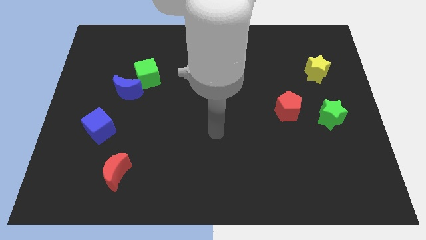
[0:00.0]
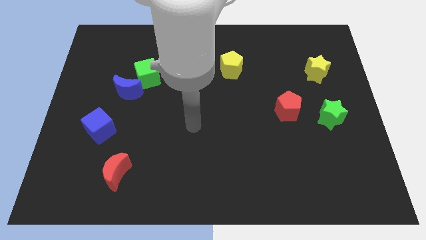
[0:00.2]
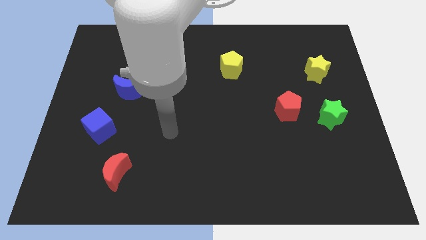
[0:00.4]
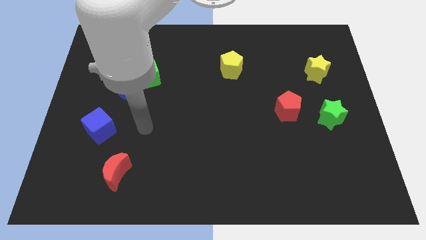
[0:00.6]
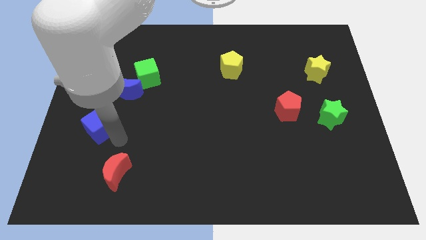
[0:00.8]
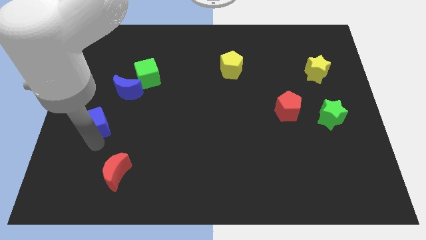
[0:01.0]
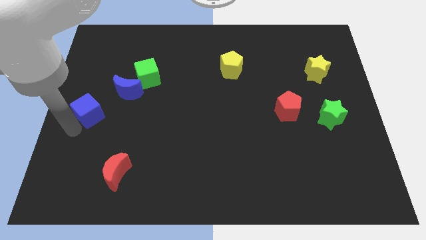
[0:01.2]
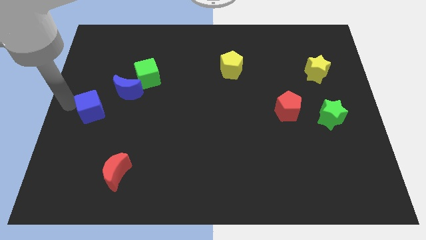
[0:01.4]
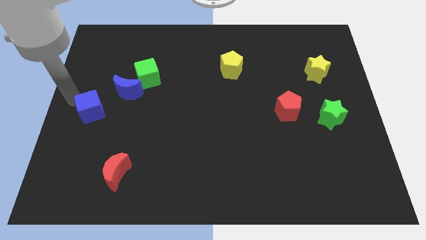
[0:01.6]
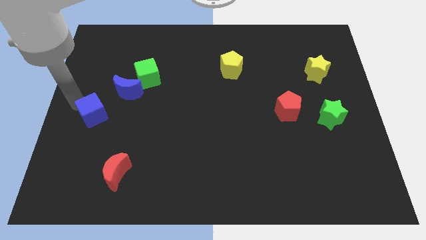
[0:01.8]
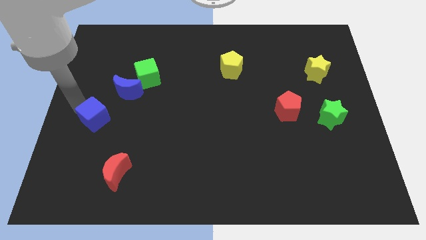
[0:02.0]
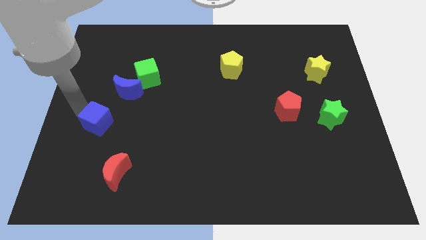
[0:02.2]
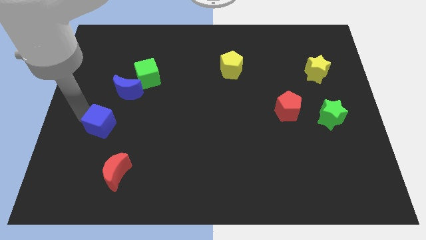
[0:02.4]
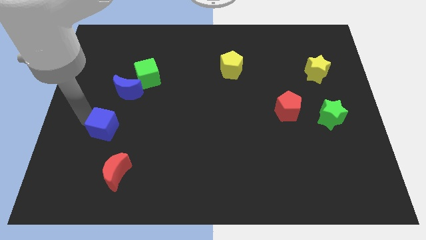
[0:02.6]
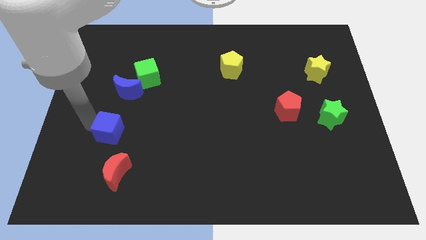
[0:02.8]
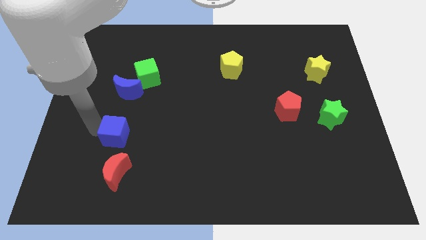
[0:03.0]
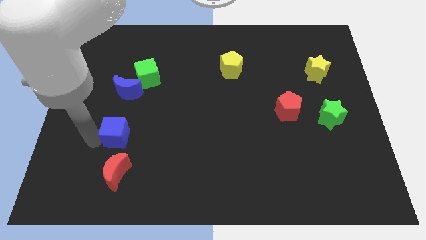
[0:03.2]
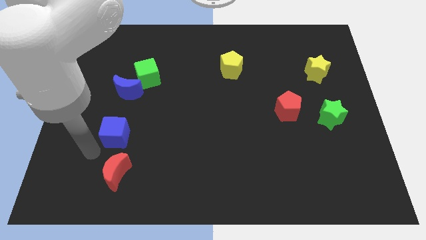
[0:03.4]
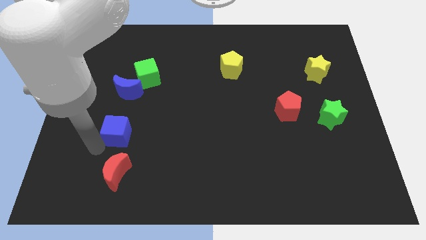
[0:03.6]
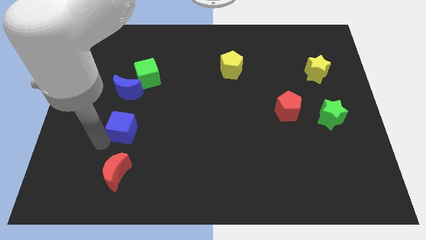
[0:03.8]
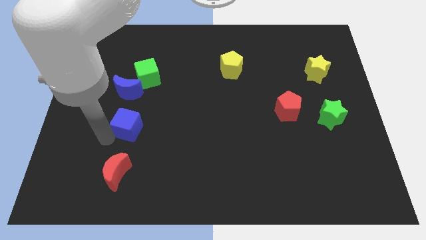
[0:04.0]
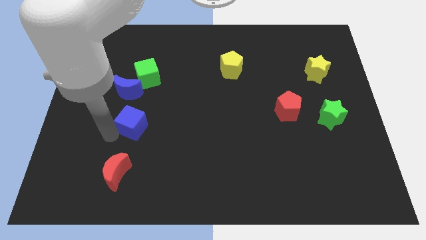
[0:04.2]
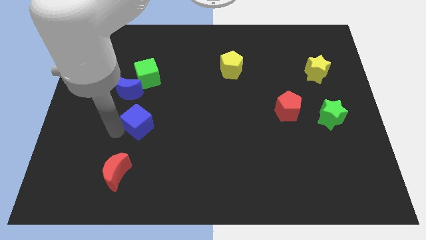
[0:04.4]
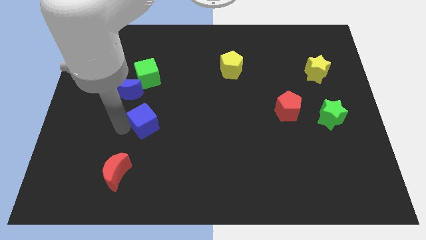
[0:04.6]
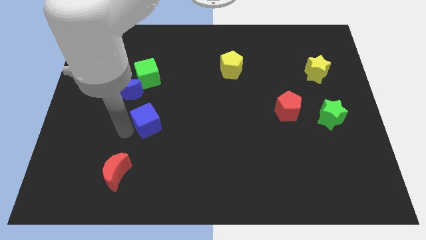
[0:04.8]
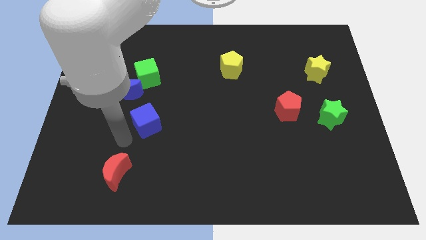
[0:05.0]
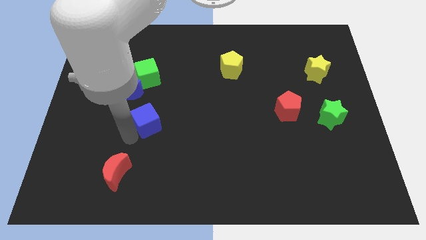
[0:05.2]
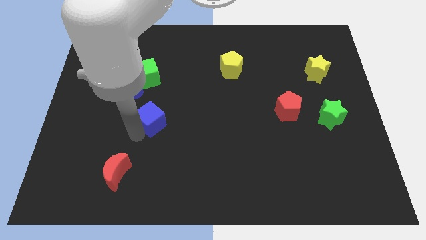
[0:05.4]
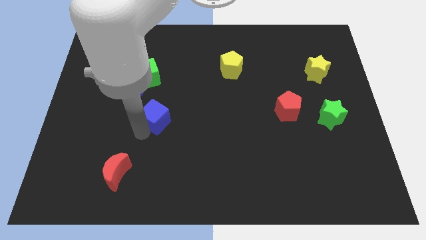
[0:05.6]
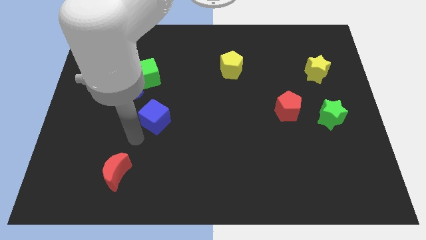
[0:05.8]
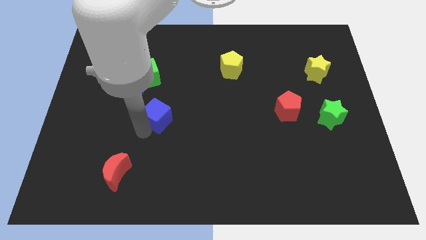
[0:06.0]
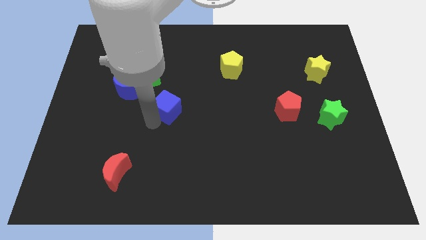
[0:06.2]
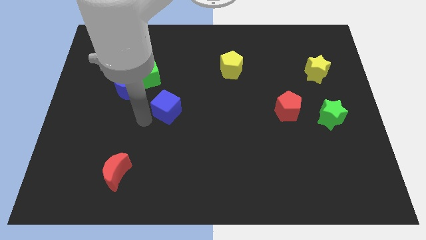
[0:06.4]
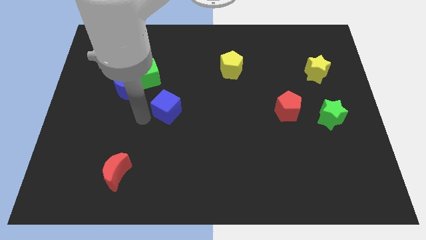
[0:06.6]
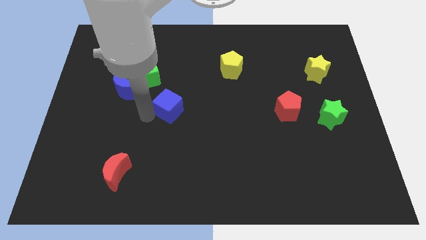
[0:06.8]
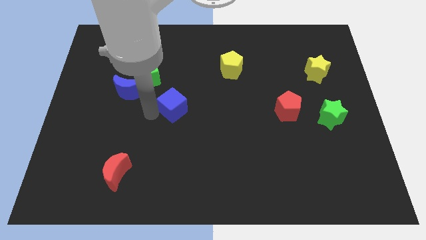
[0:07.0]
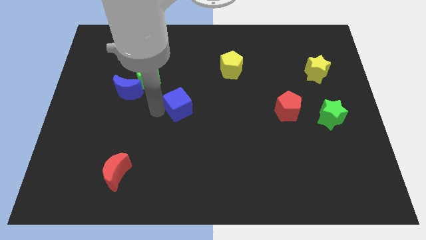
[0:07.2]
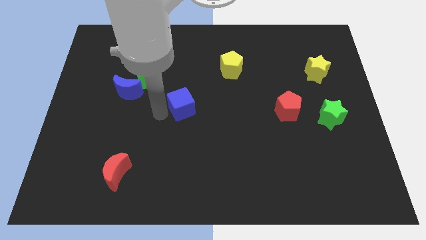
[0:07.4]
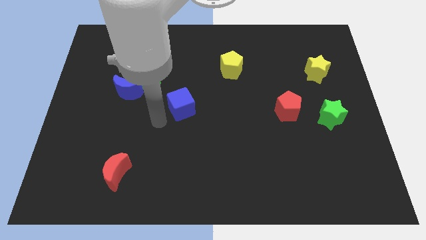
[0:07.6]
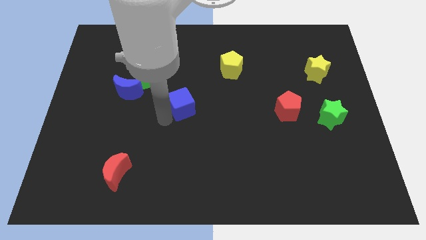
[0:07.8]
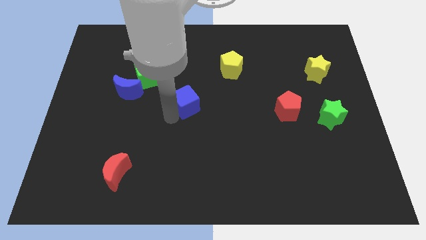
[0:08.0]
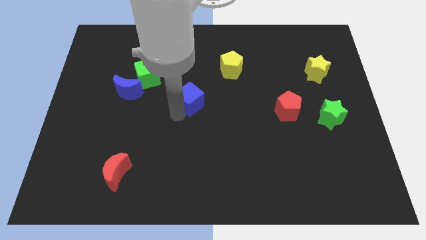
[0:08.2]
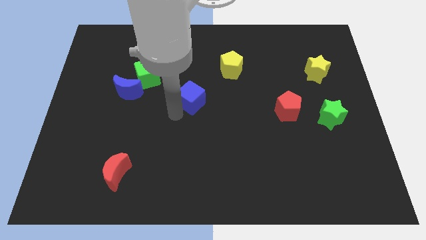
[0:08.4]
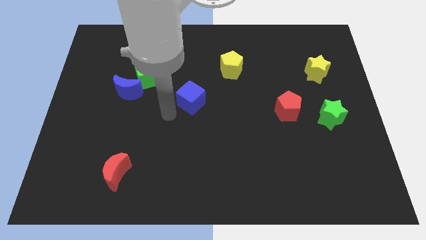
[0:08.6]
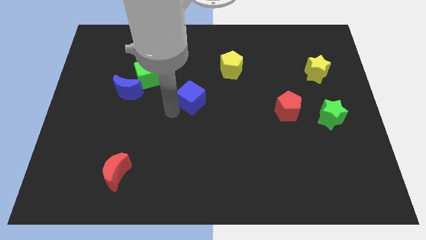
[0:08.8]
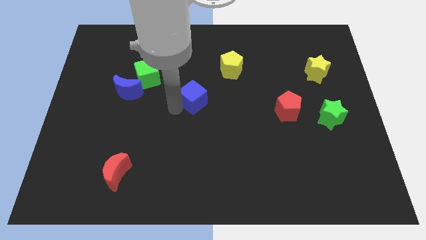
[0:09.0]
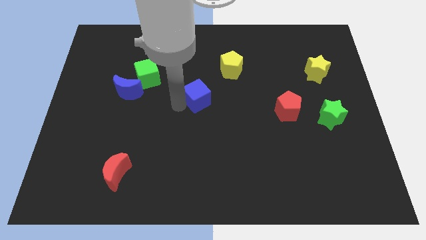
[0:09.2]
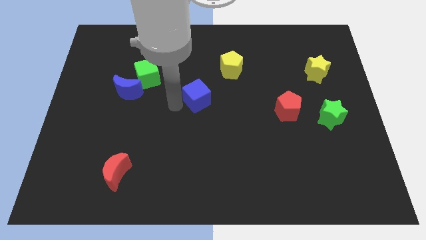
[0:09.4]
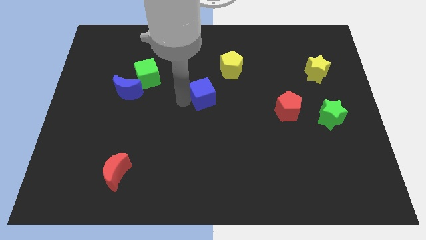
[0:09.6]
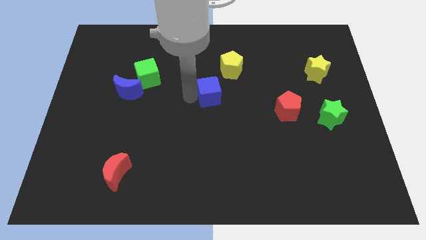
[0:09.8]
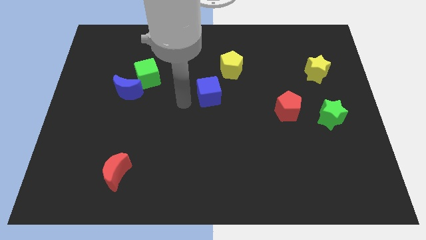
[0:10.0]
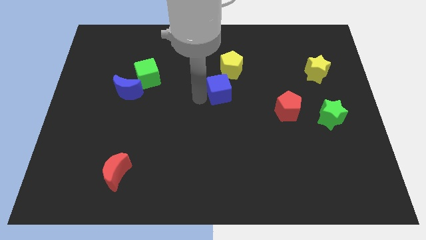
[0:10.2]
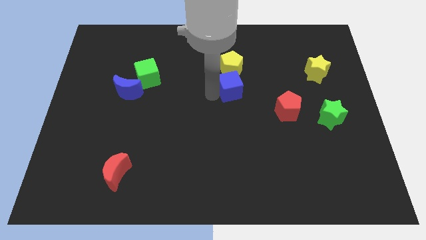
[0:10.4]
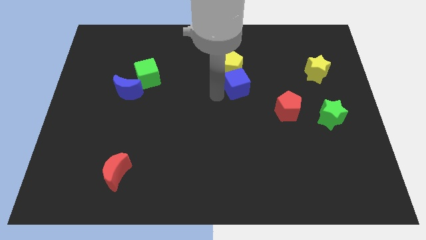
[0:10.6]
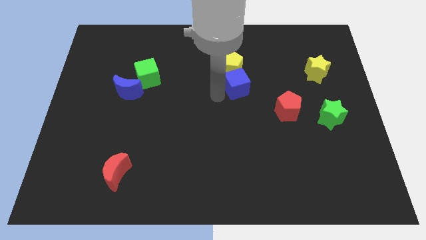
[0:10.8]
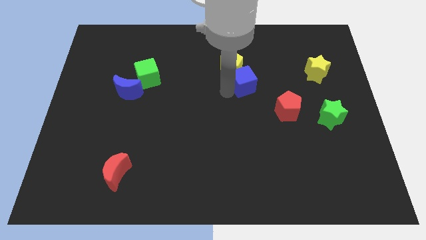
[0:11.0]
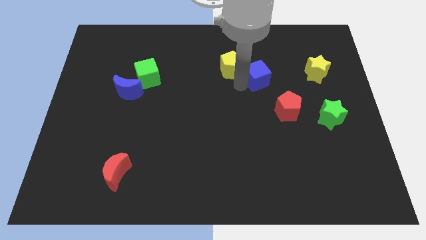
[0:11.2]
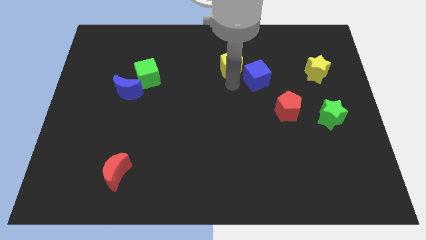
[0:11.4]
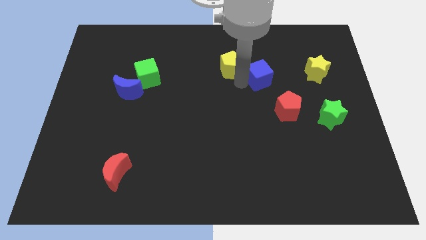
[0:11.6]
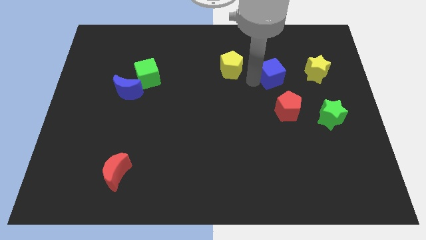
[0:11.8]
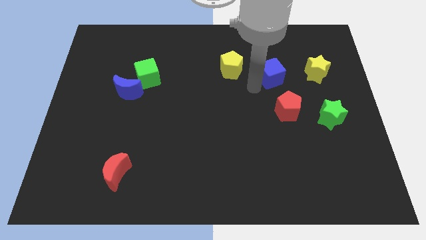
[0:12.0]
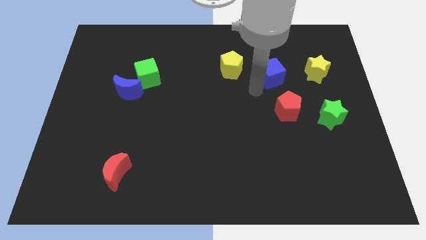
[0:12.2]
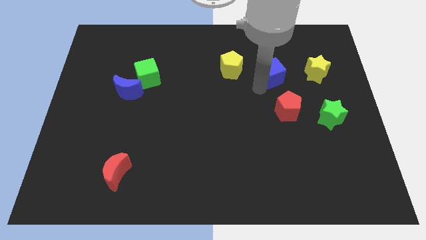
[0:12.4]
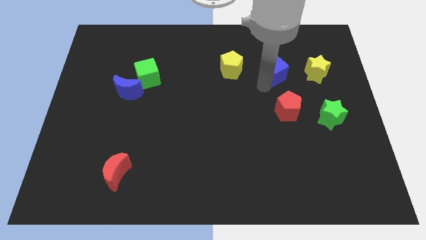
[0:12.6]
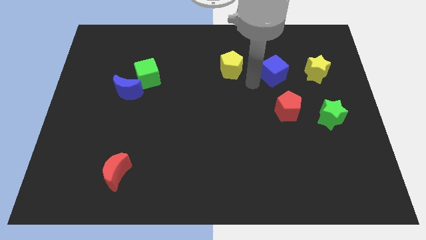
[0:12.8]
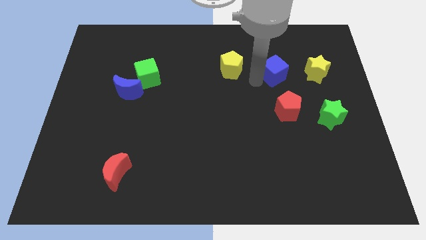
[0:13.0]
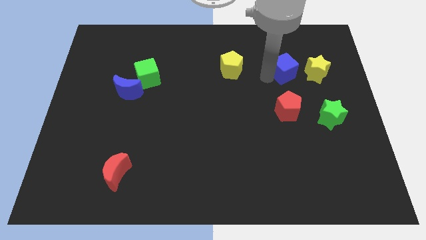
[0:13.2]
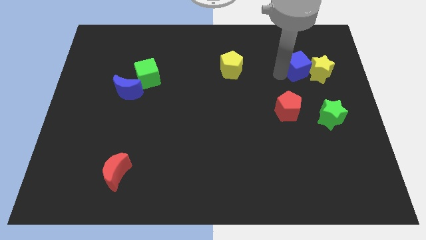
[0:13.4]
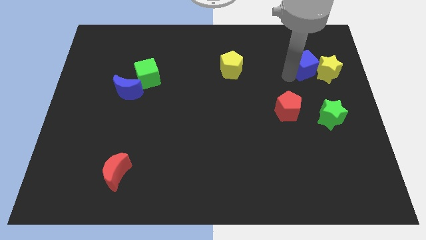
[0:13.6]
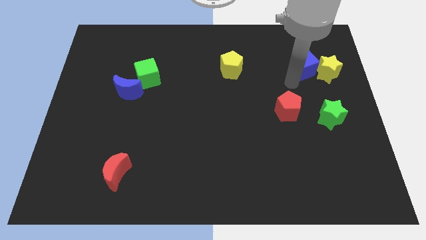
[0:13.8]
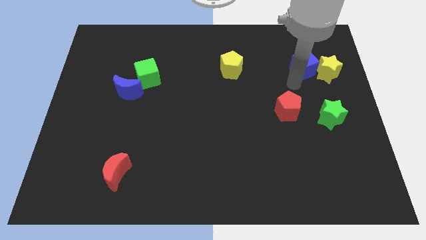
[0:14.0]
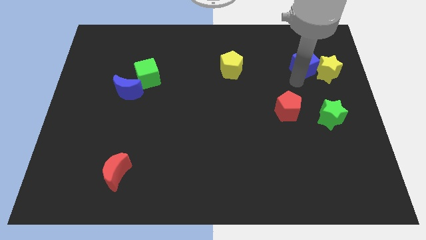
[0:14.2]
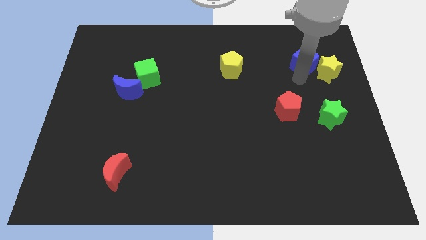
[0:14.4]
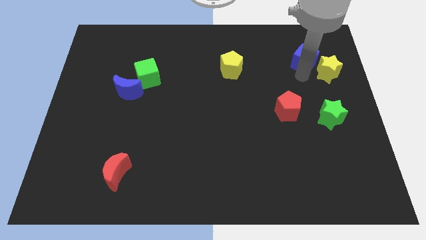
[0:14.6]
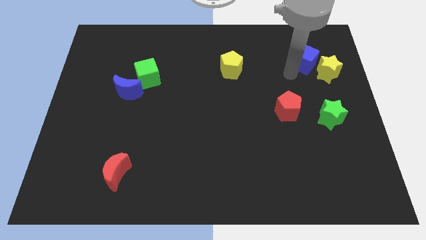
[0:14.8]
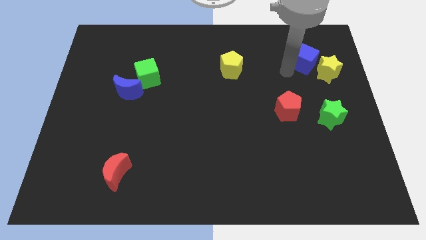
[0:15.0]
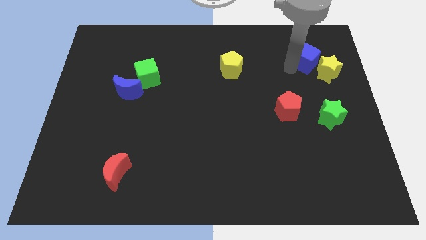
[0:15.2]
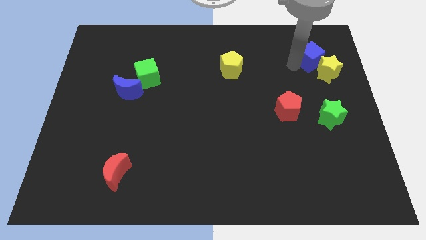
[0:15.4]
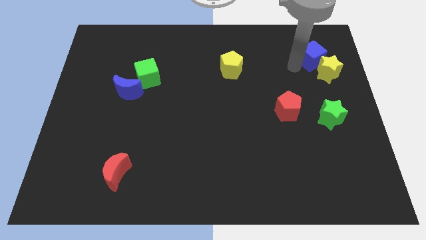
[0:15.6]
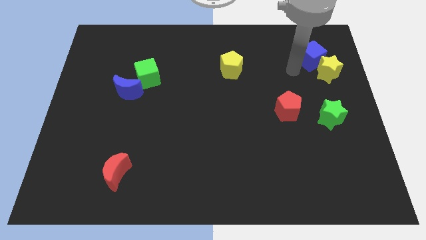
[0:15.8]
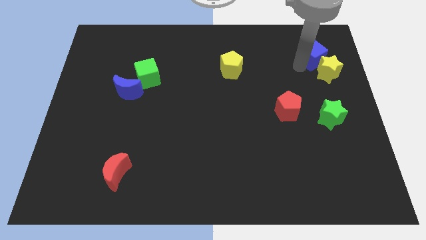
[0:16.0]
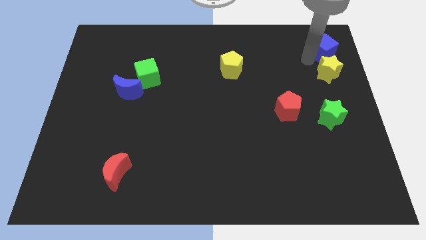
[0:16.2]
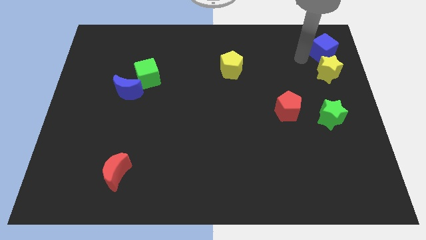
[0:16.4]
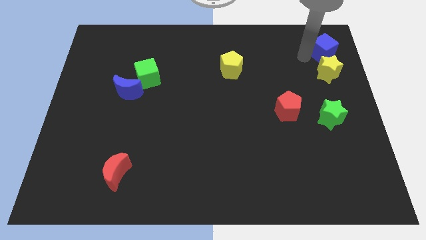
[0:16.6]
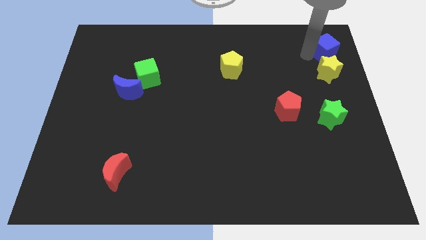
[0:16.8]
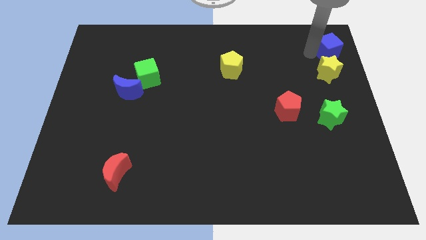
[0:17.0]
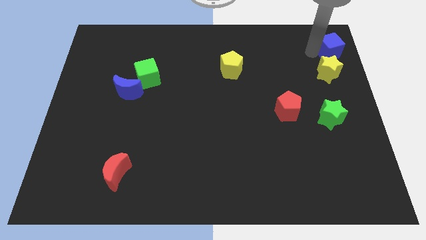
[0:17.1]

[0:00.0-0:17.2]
put the blue cube to the top right corner
